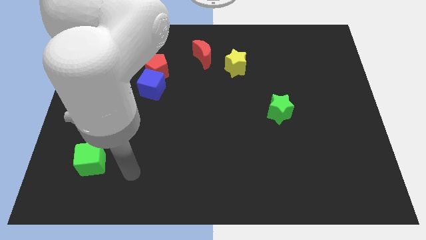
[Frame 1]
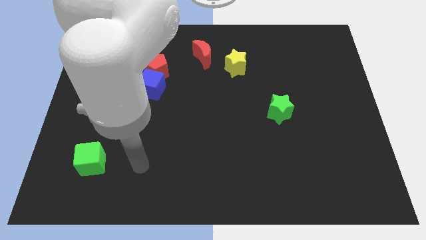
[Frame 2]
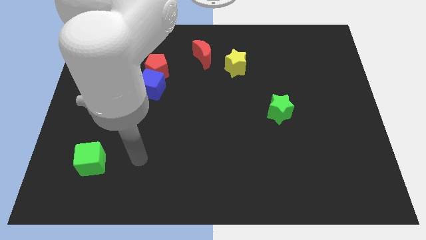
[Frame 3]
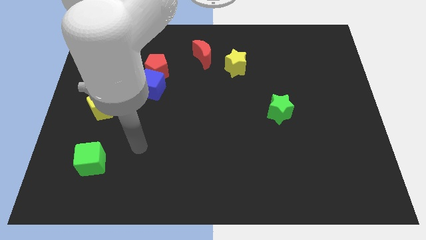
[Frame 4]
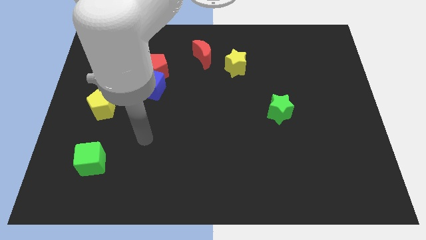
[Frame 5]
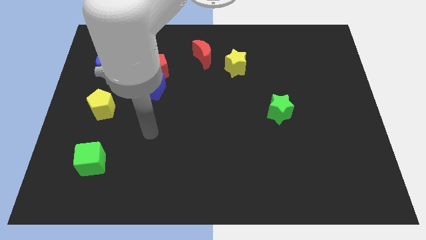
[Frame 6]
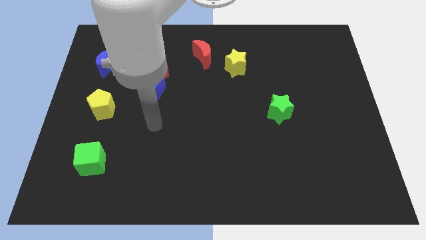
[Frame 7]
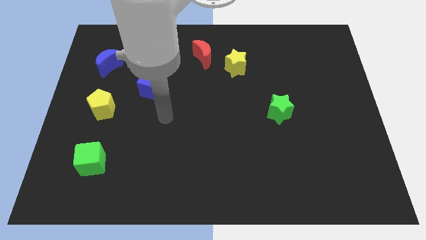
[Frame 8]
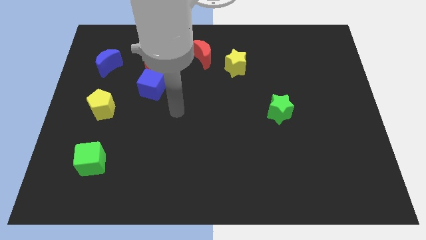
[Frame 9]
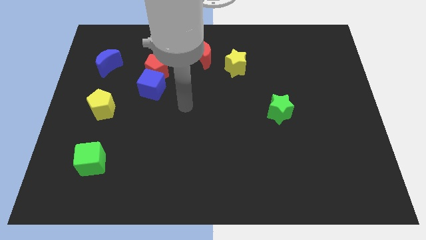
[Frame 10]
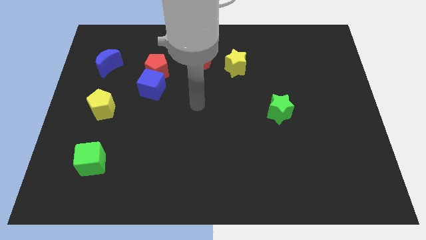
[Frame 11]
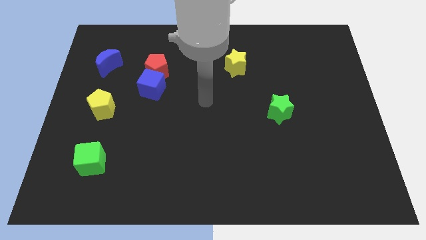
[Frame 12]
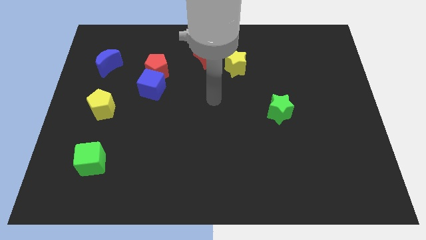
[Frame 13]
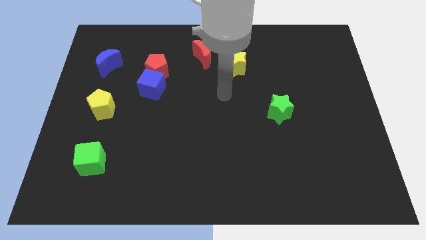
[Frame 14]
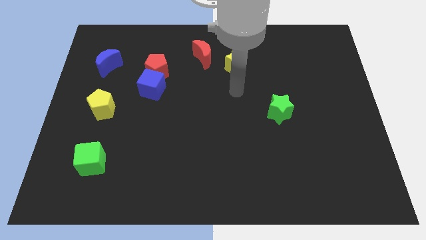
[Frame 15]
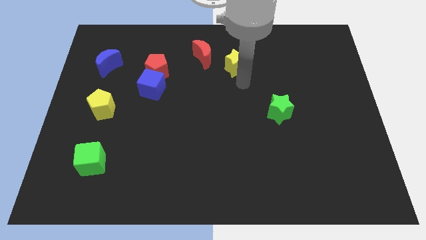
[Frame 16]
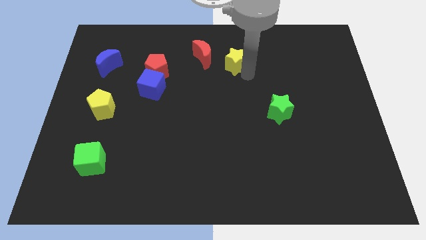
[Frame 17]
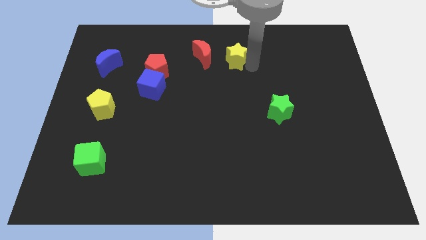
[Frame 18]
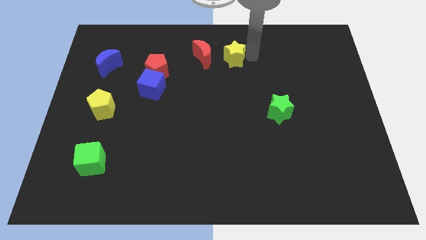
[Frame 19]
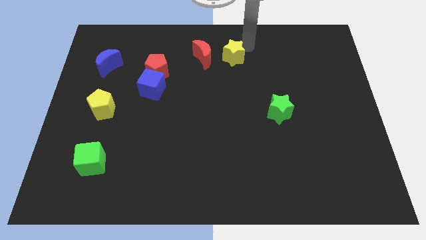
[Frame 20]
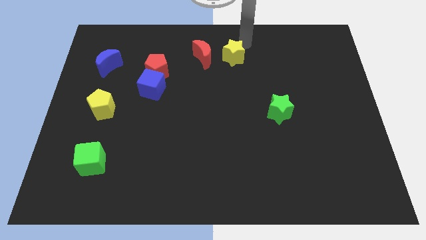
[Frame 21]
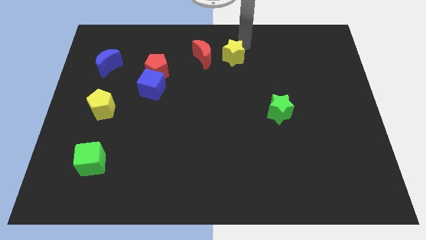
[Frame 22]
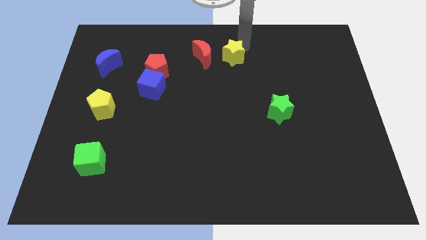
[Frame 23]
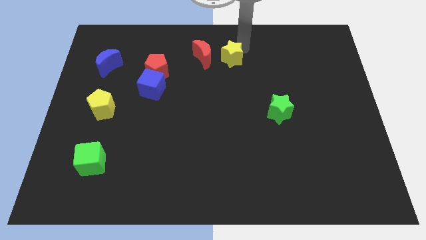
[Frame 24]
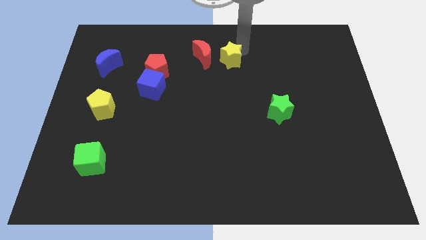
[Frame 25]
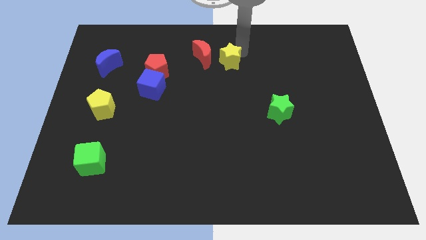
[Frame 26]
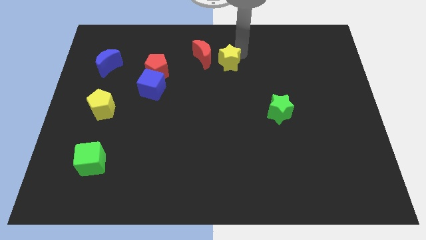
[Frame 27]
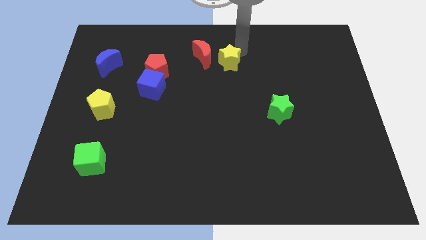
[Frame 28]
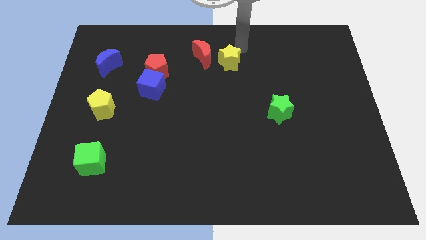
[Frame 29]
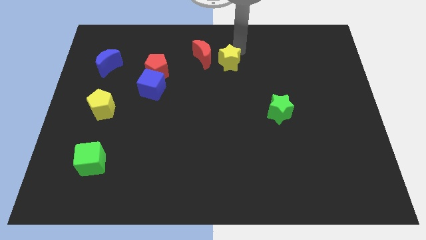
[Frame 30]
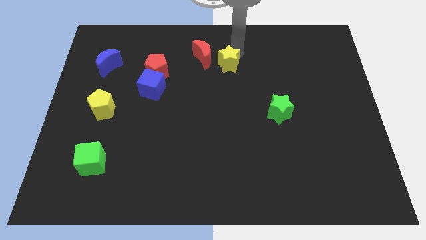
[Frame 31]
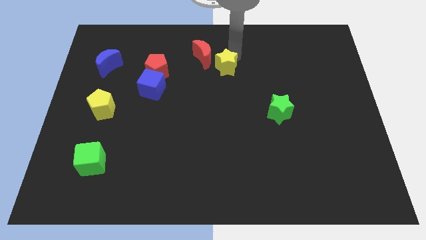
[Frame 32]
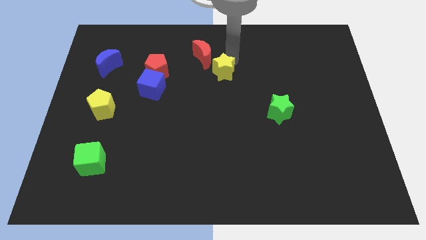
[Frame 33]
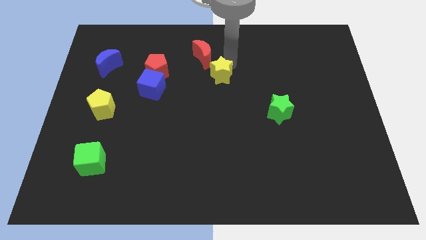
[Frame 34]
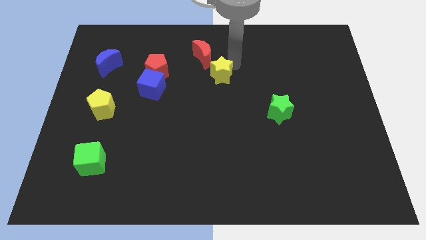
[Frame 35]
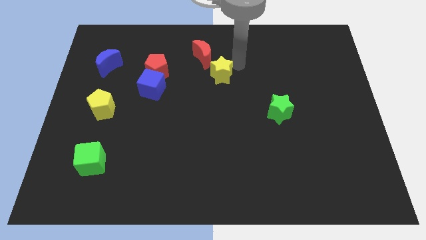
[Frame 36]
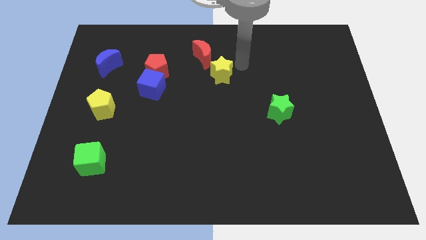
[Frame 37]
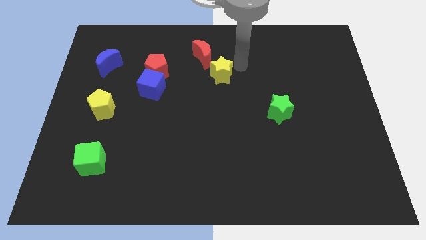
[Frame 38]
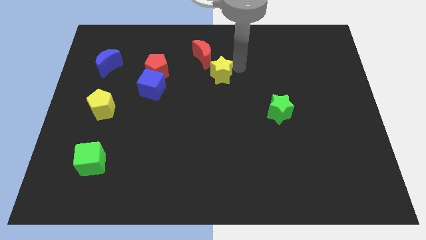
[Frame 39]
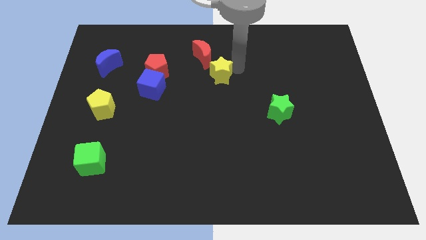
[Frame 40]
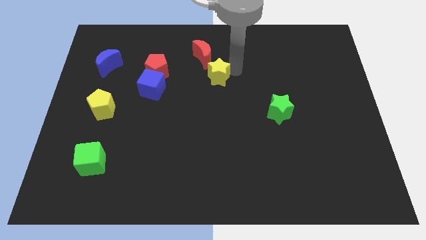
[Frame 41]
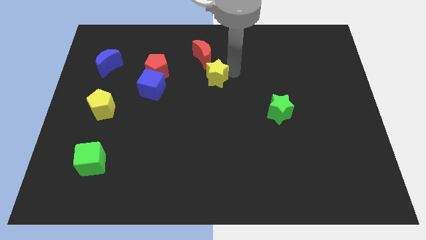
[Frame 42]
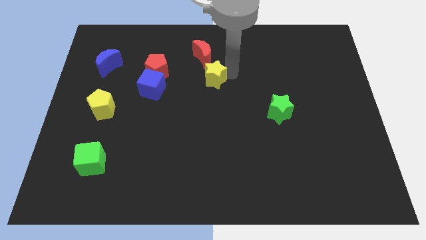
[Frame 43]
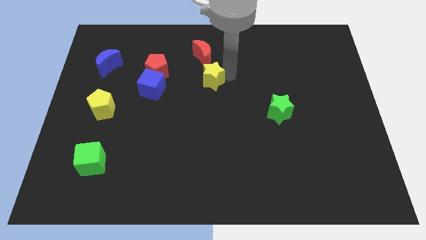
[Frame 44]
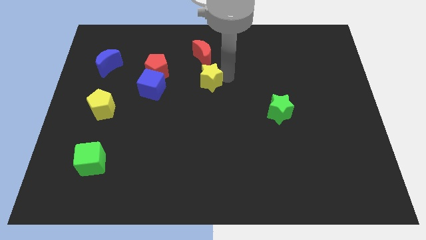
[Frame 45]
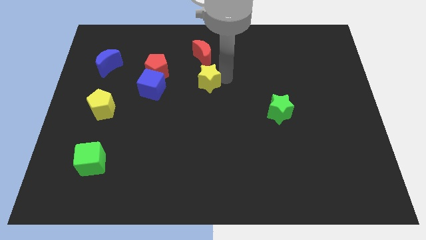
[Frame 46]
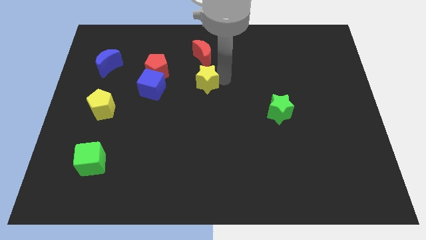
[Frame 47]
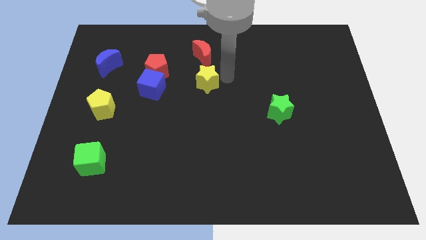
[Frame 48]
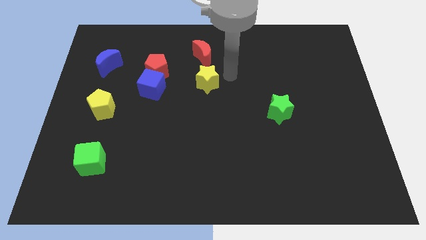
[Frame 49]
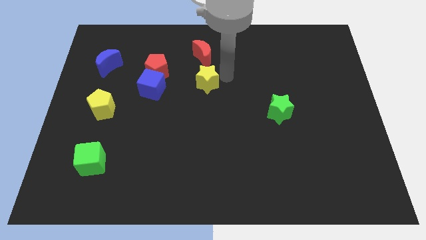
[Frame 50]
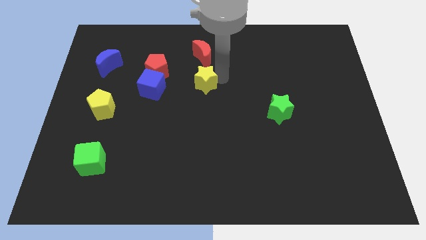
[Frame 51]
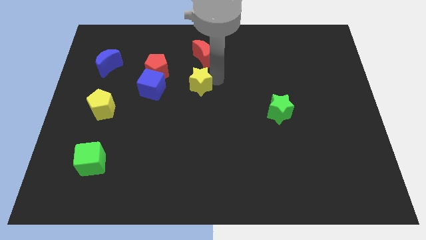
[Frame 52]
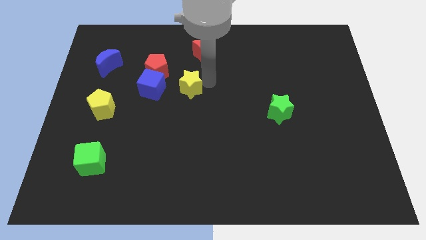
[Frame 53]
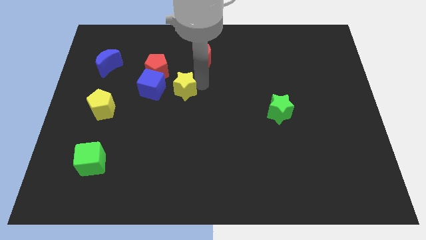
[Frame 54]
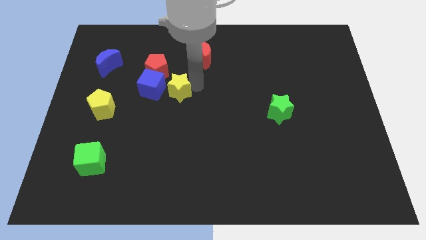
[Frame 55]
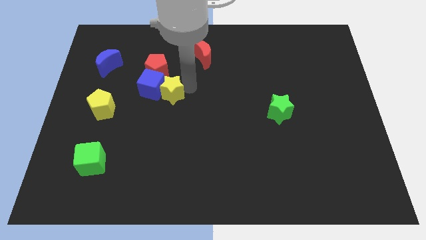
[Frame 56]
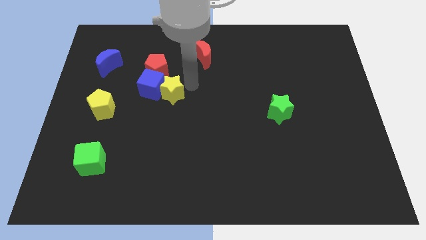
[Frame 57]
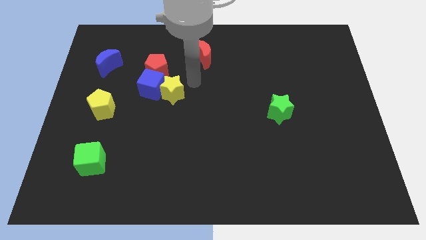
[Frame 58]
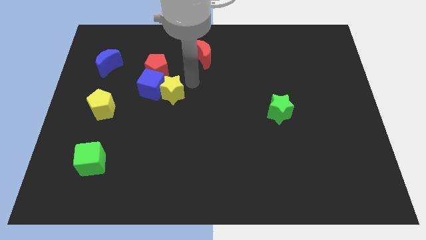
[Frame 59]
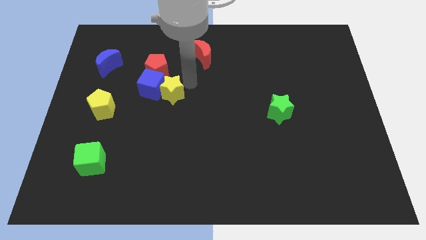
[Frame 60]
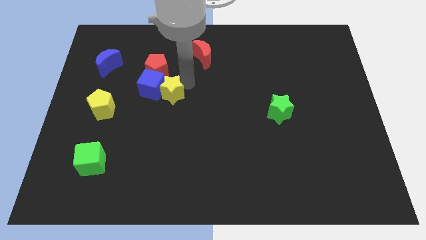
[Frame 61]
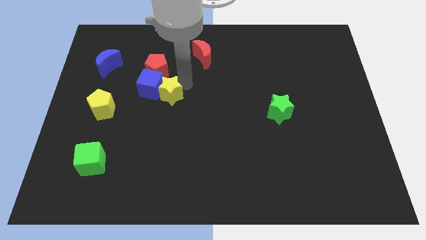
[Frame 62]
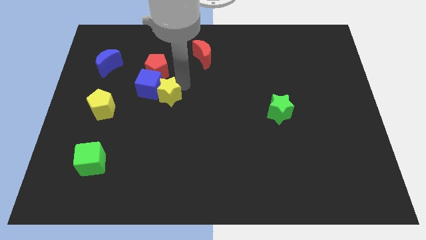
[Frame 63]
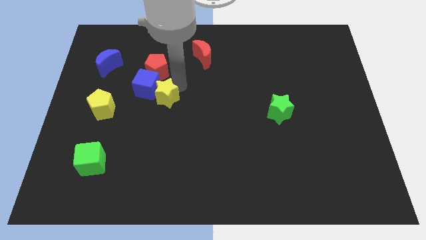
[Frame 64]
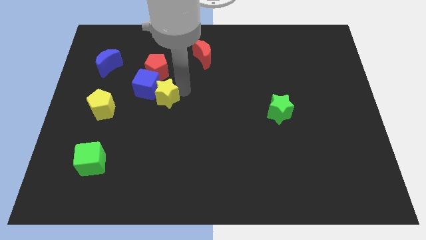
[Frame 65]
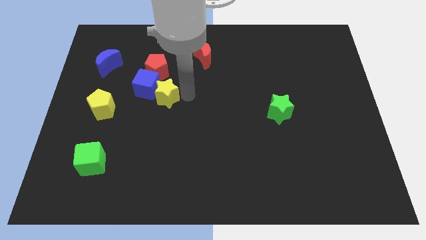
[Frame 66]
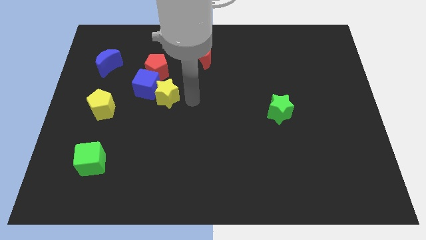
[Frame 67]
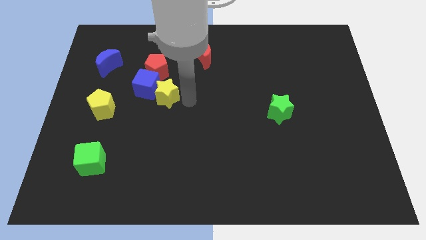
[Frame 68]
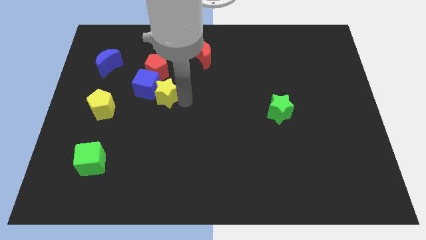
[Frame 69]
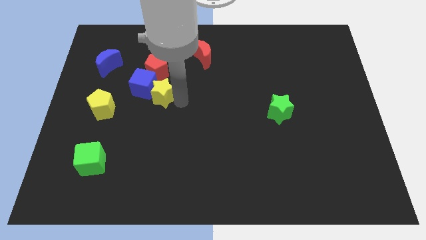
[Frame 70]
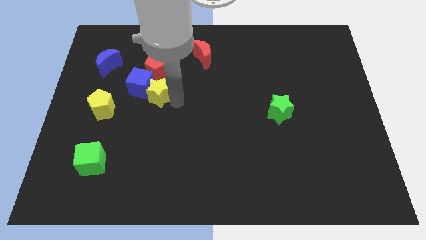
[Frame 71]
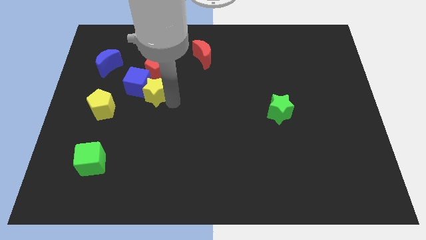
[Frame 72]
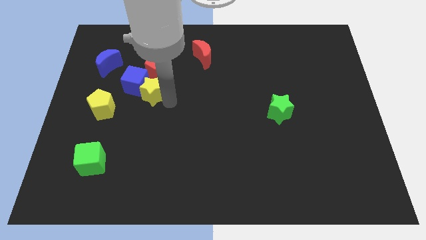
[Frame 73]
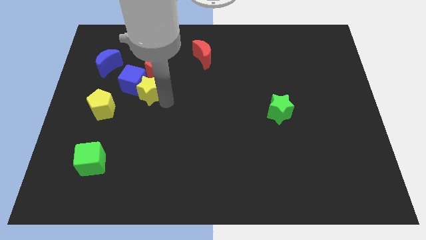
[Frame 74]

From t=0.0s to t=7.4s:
slide the yellow star to the top right side of the yellow pentagon
